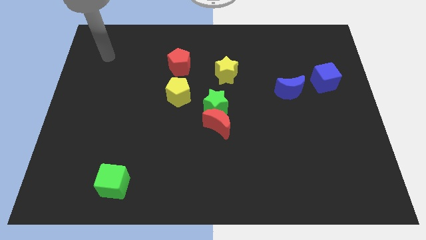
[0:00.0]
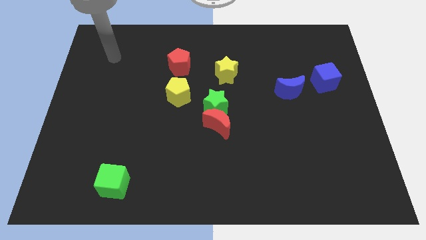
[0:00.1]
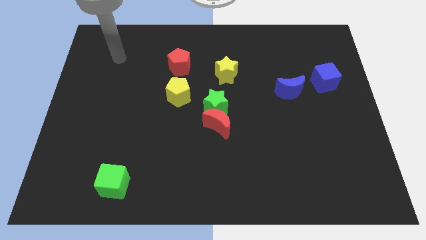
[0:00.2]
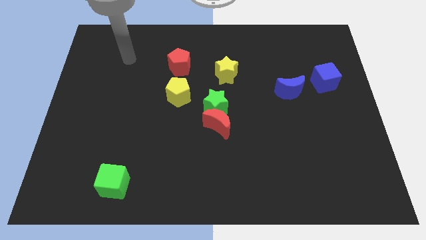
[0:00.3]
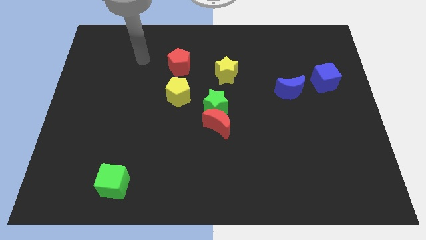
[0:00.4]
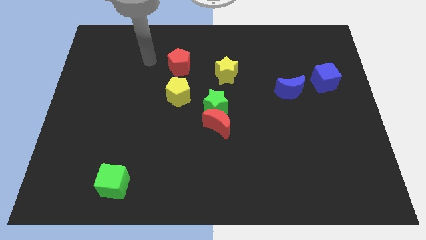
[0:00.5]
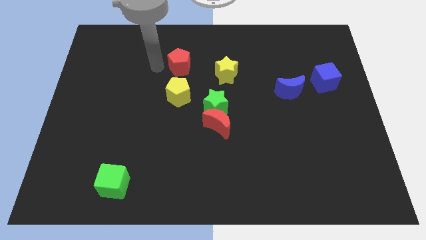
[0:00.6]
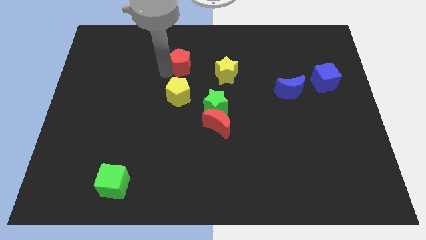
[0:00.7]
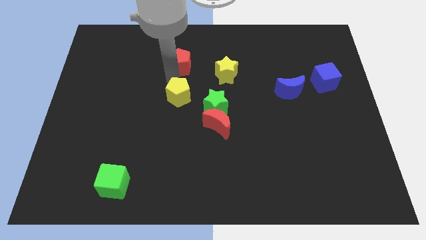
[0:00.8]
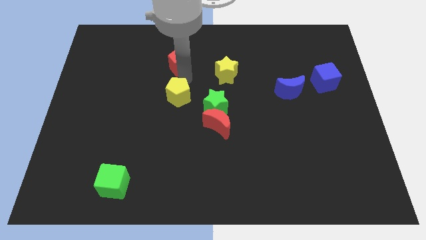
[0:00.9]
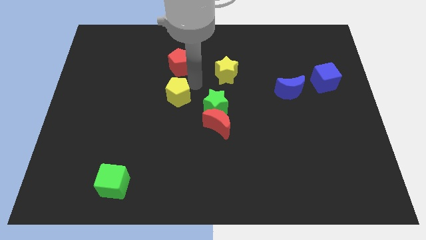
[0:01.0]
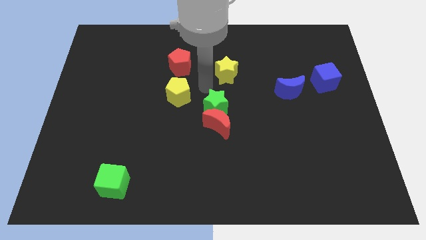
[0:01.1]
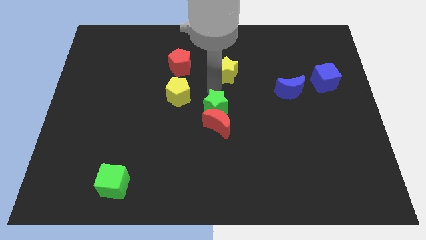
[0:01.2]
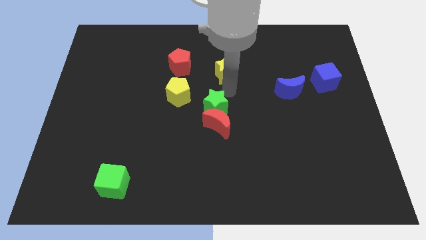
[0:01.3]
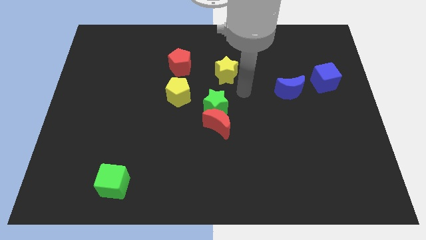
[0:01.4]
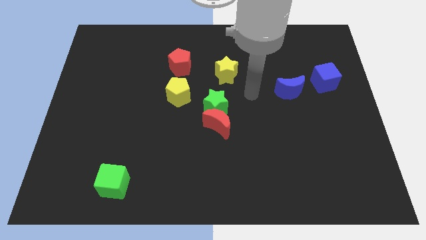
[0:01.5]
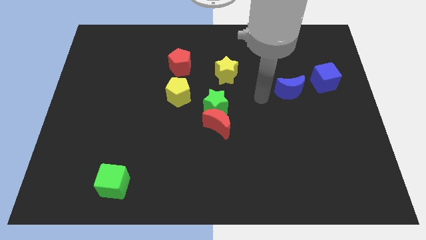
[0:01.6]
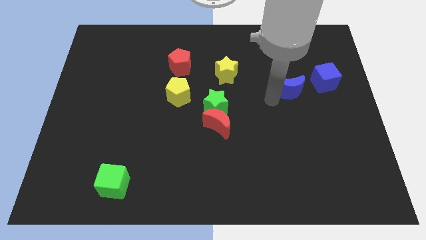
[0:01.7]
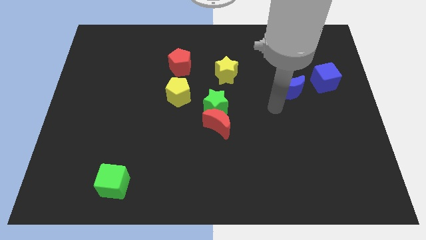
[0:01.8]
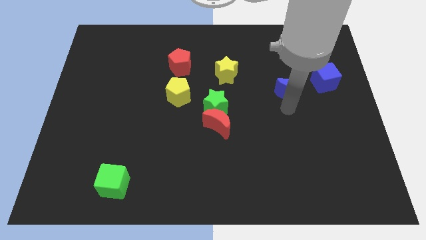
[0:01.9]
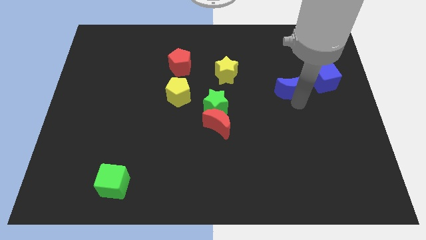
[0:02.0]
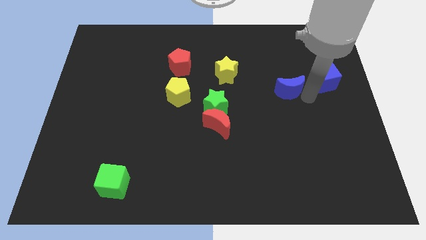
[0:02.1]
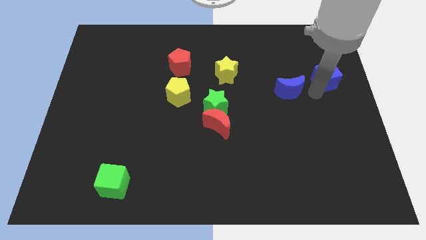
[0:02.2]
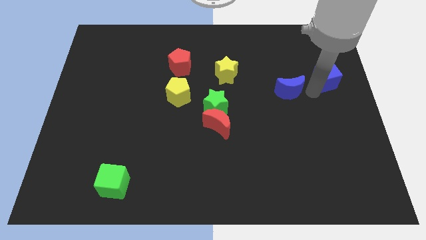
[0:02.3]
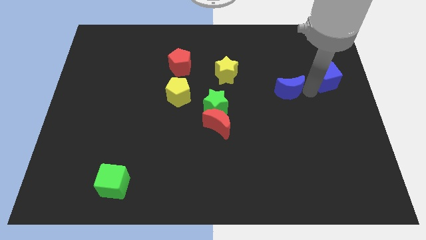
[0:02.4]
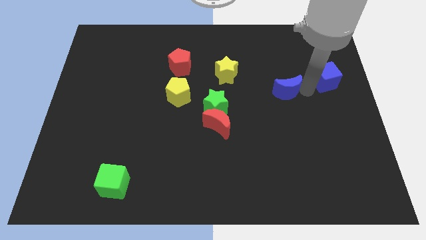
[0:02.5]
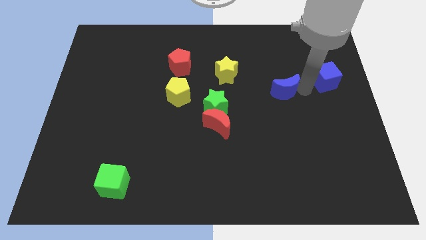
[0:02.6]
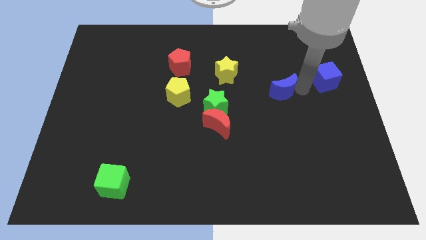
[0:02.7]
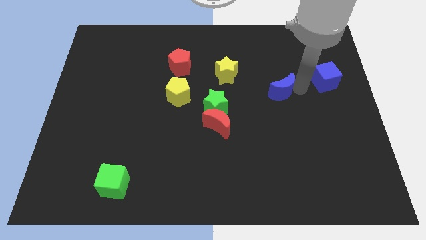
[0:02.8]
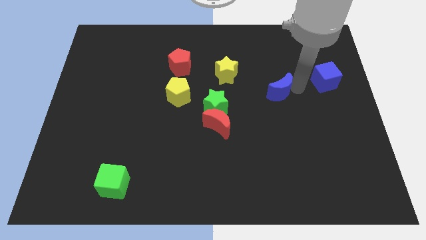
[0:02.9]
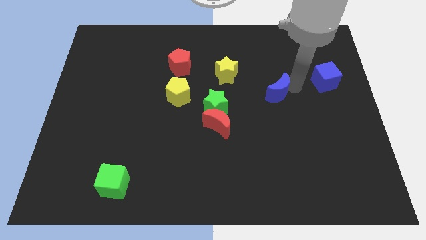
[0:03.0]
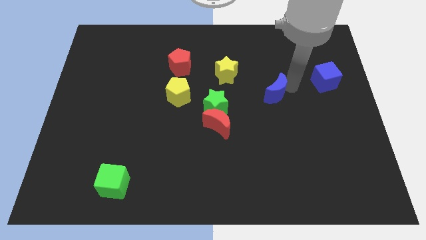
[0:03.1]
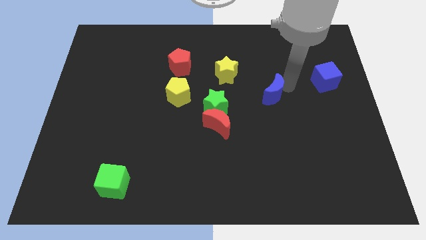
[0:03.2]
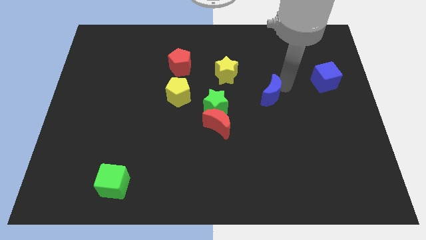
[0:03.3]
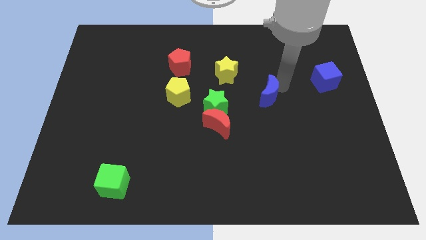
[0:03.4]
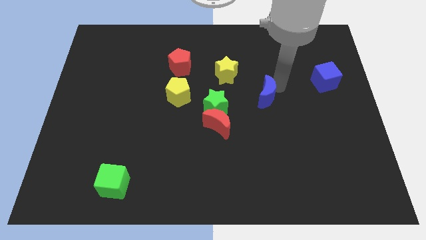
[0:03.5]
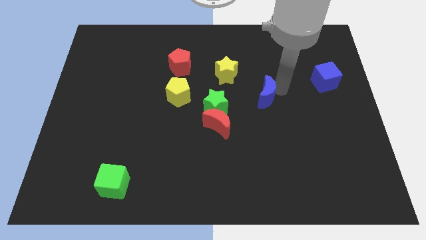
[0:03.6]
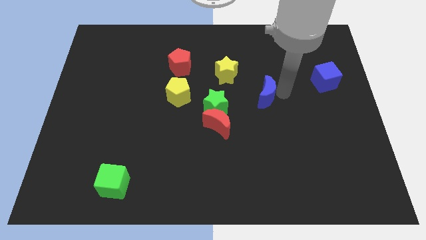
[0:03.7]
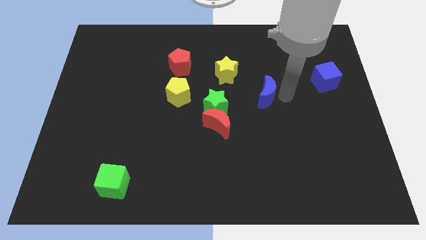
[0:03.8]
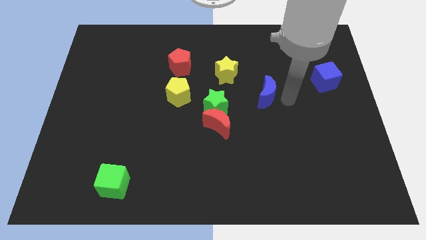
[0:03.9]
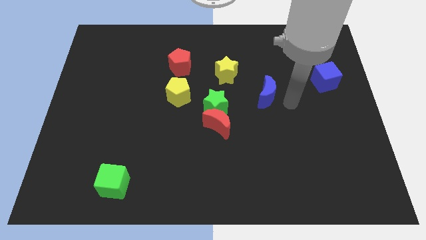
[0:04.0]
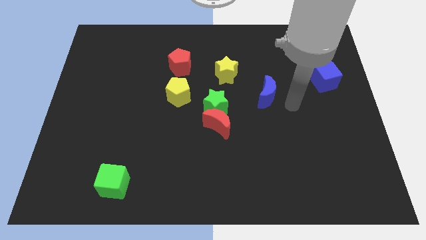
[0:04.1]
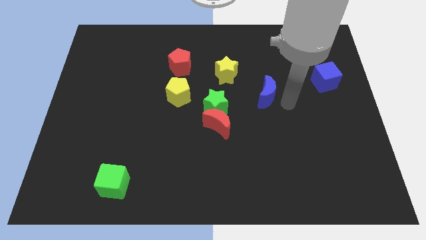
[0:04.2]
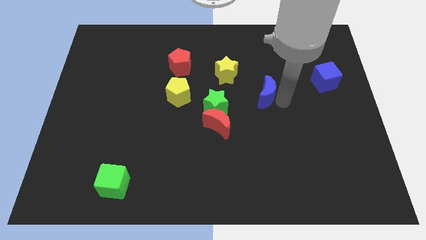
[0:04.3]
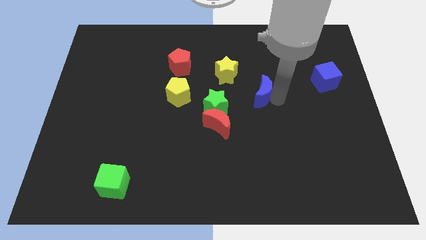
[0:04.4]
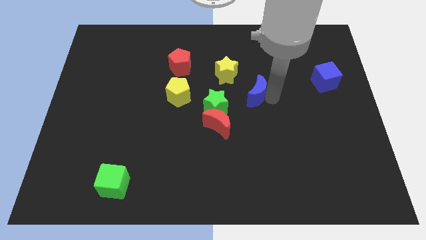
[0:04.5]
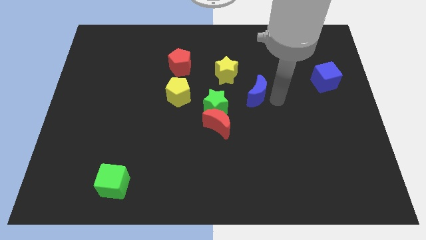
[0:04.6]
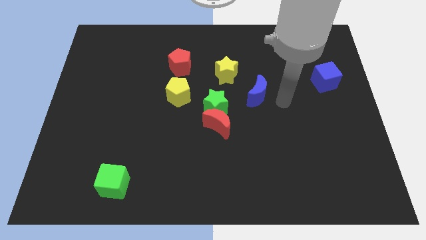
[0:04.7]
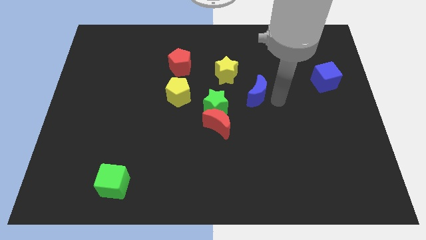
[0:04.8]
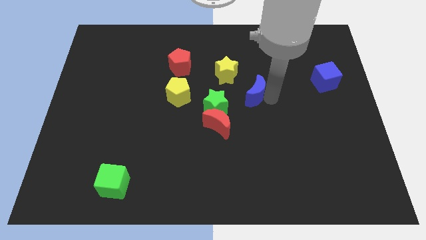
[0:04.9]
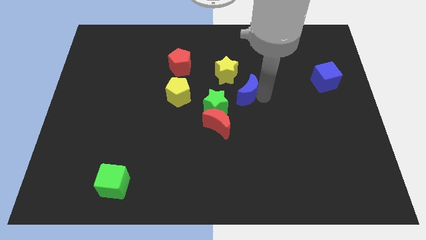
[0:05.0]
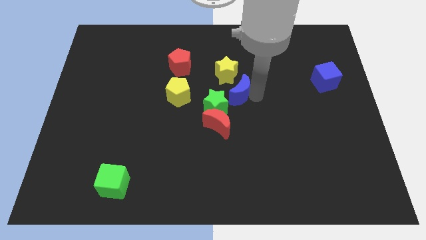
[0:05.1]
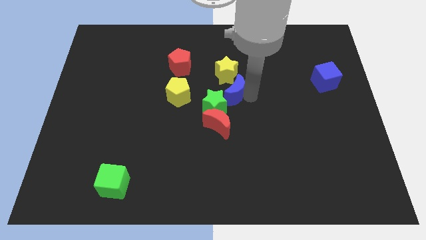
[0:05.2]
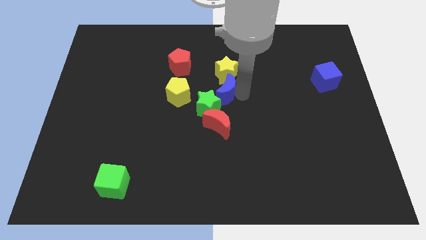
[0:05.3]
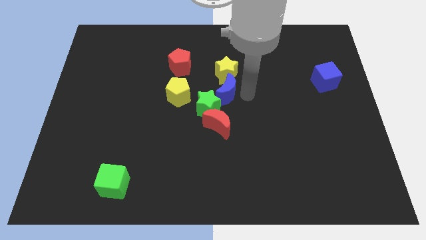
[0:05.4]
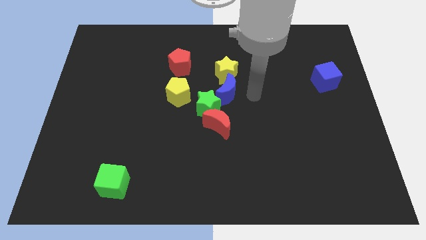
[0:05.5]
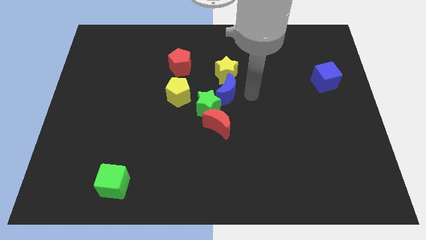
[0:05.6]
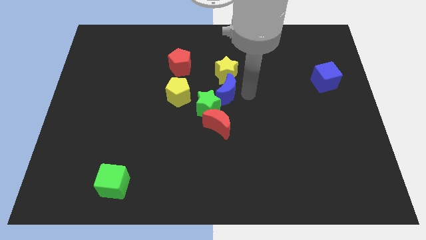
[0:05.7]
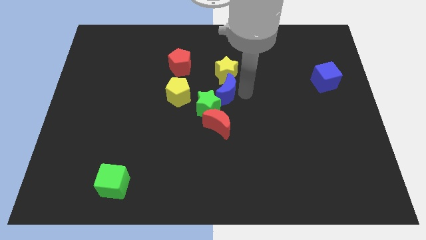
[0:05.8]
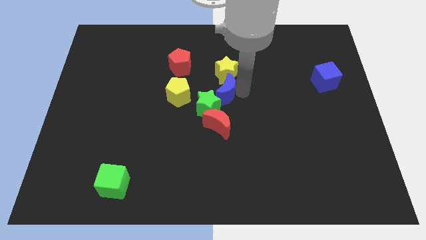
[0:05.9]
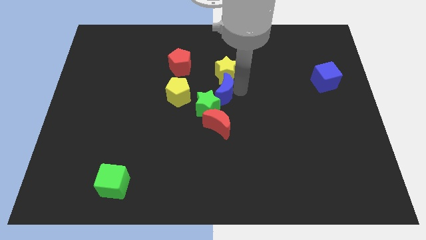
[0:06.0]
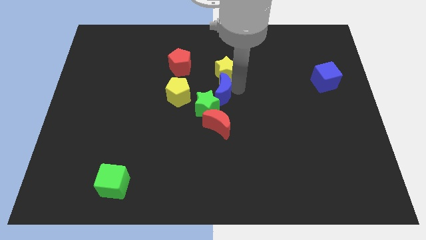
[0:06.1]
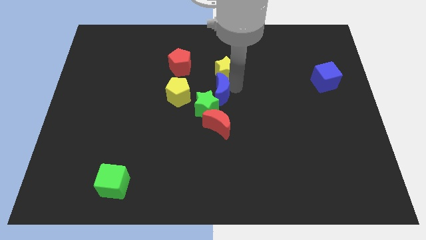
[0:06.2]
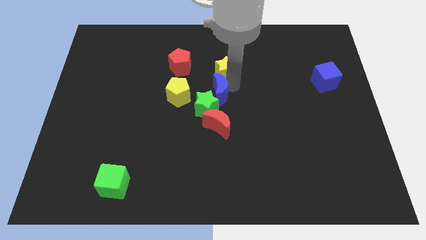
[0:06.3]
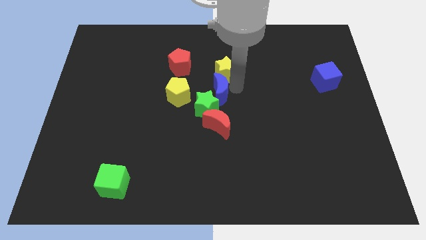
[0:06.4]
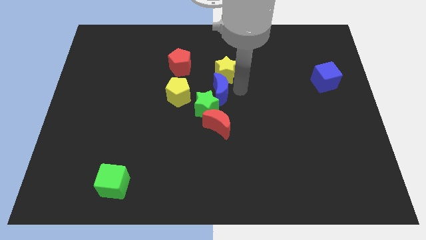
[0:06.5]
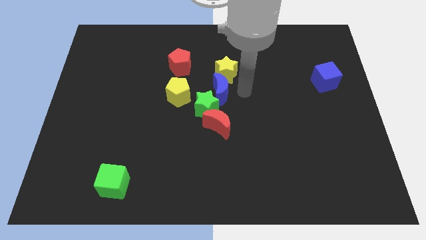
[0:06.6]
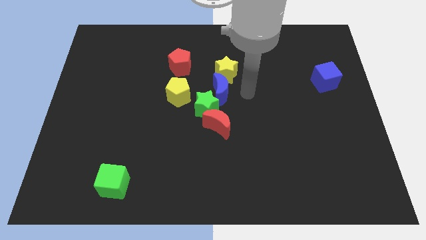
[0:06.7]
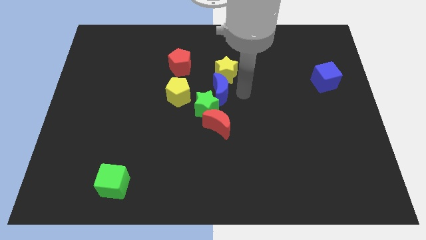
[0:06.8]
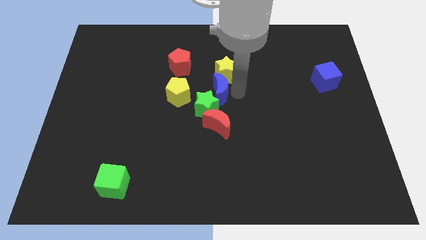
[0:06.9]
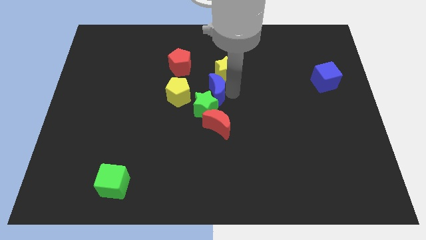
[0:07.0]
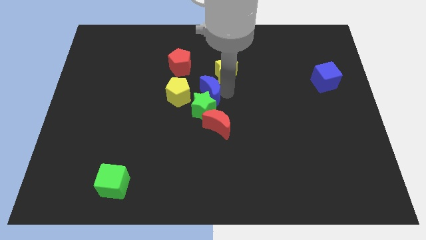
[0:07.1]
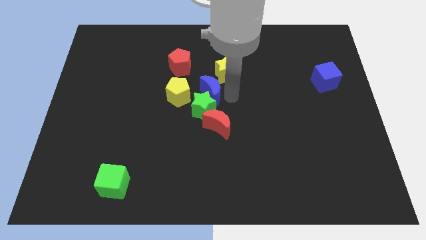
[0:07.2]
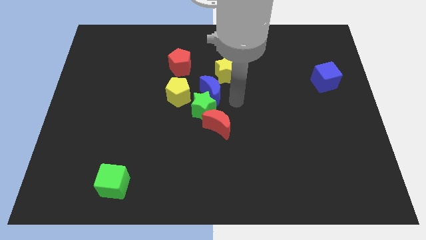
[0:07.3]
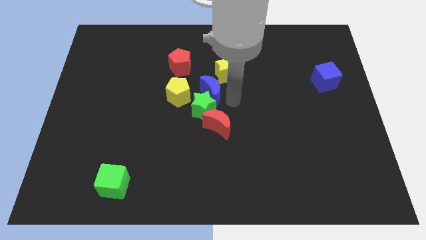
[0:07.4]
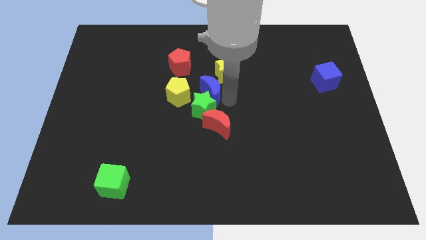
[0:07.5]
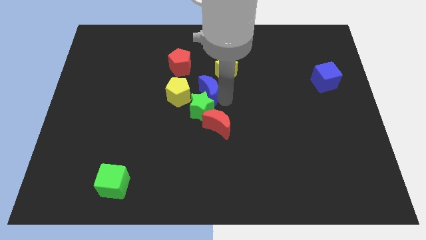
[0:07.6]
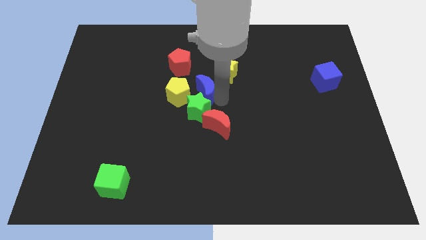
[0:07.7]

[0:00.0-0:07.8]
slide the blue moon left
